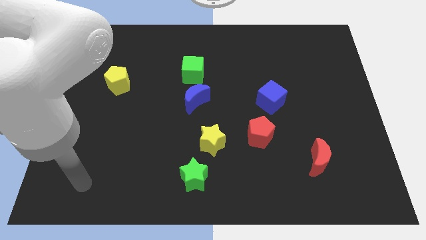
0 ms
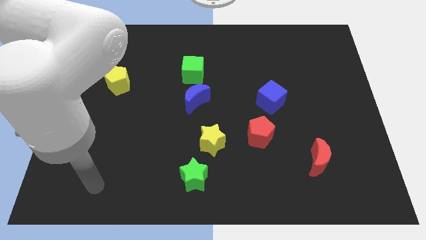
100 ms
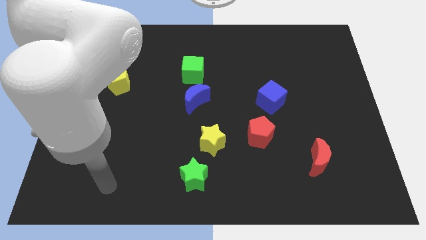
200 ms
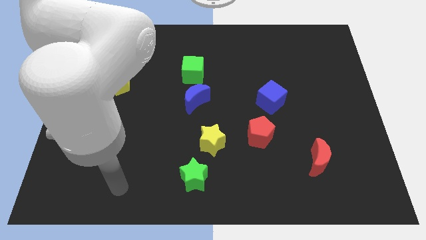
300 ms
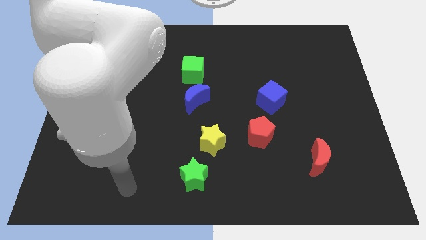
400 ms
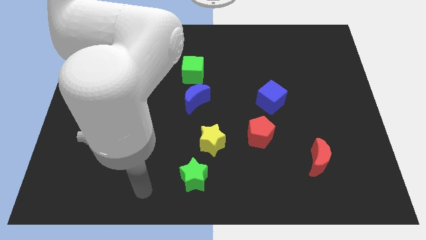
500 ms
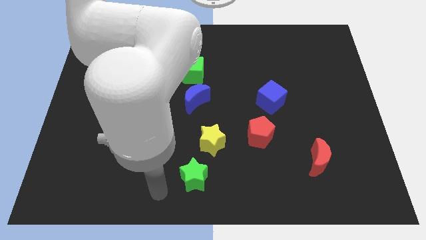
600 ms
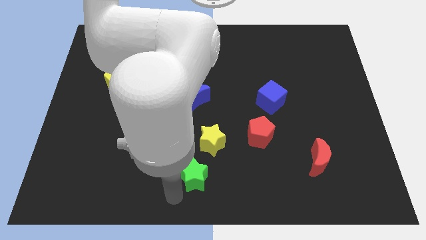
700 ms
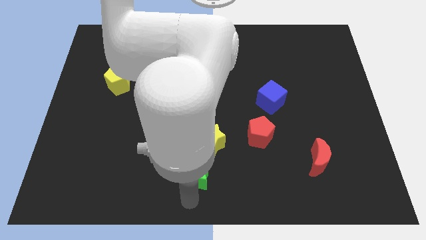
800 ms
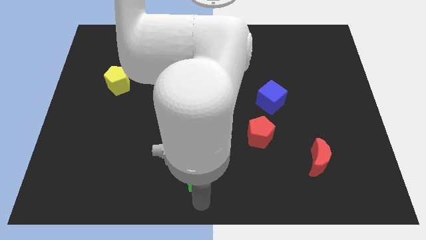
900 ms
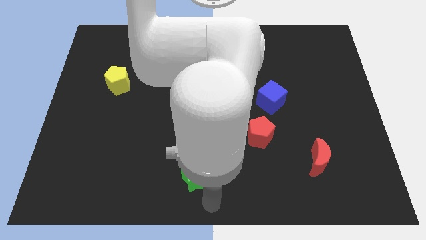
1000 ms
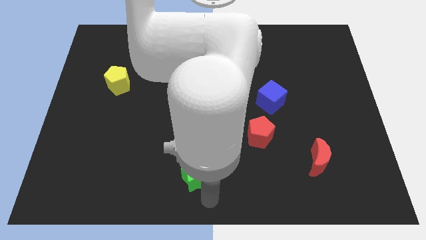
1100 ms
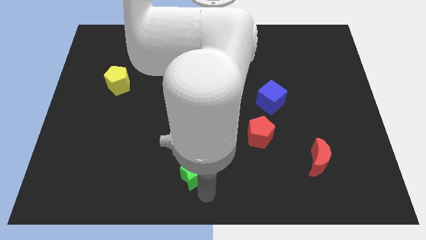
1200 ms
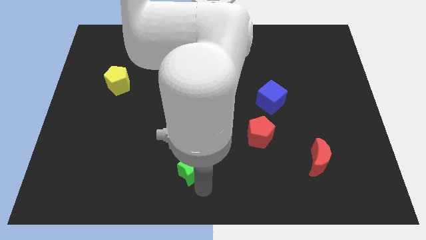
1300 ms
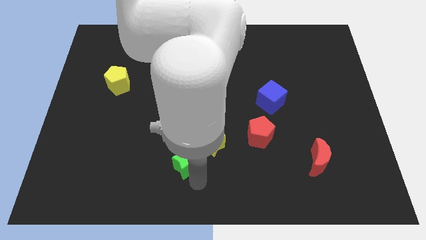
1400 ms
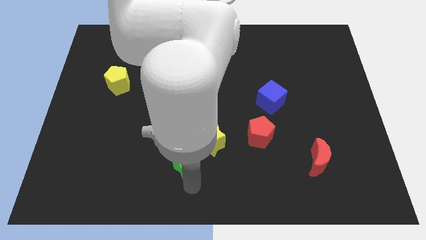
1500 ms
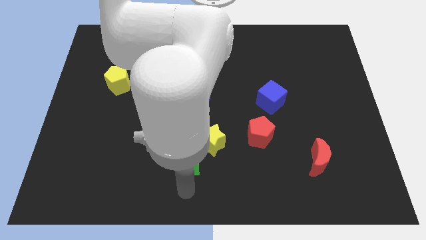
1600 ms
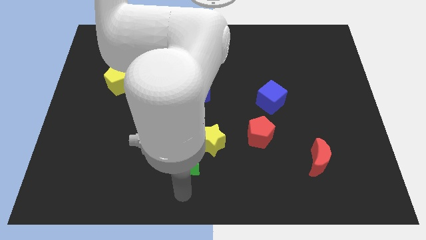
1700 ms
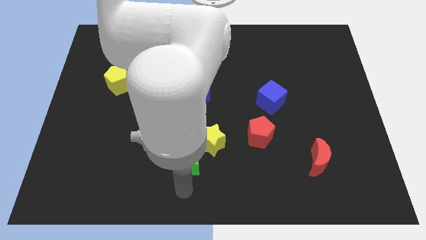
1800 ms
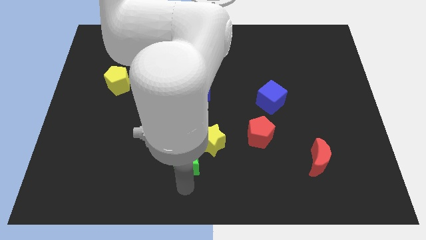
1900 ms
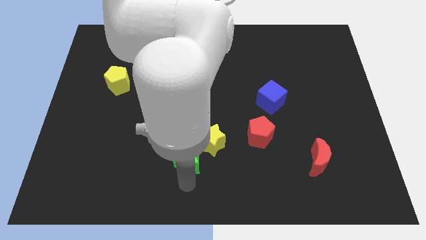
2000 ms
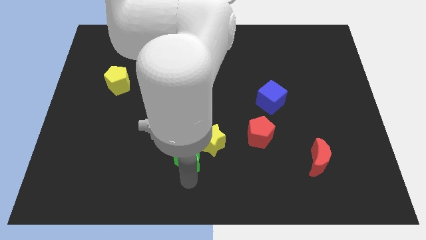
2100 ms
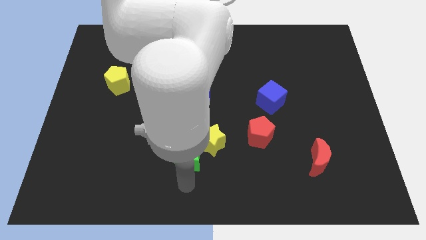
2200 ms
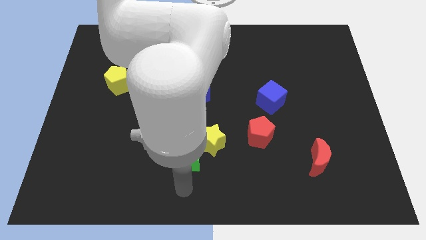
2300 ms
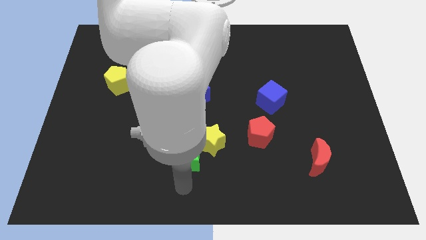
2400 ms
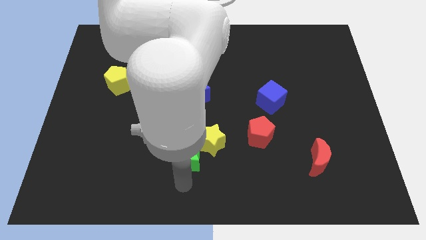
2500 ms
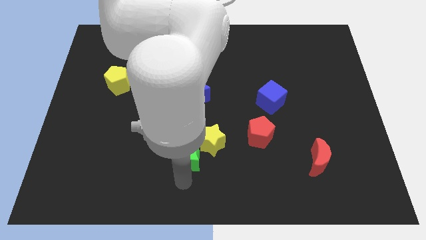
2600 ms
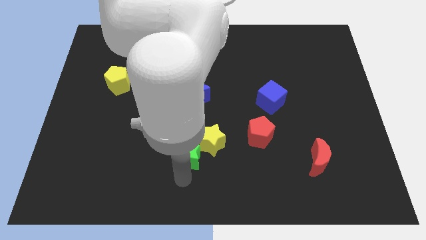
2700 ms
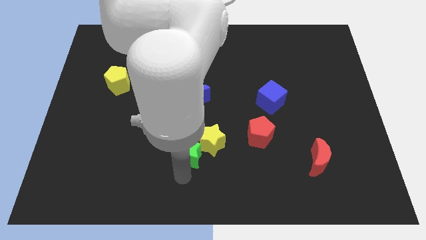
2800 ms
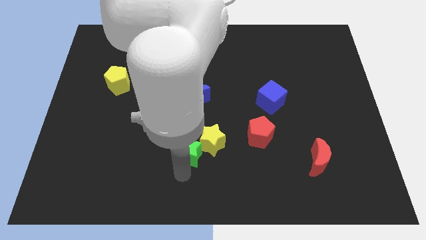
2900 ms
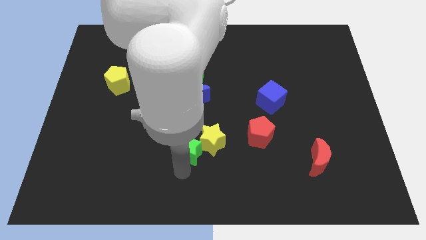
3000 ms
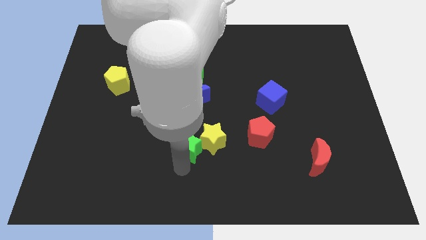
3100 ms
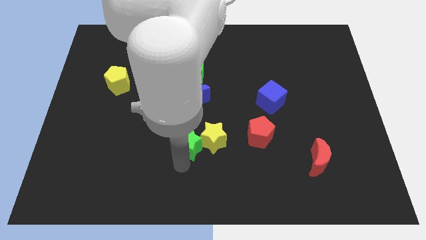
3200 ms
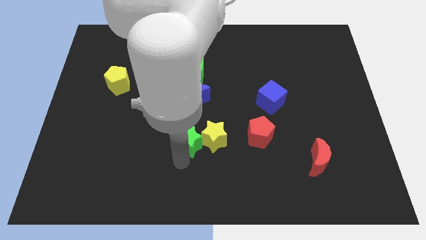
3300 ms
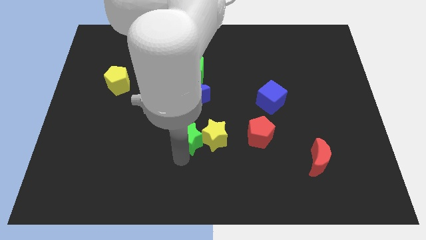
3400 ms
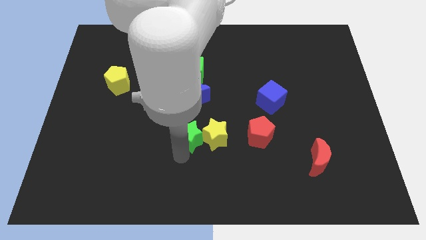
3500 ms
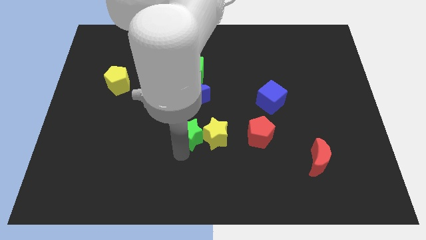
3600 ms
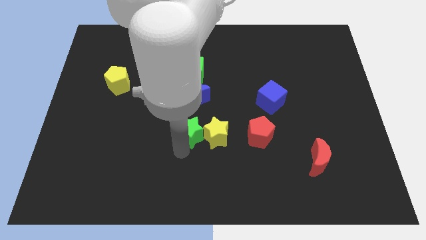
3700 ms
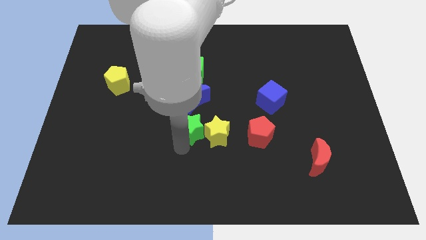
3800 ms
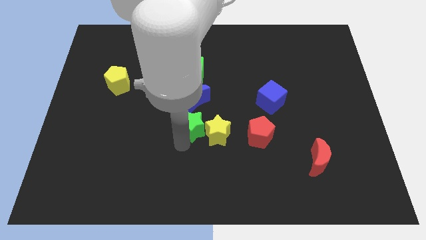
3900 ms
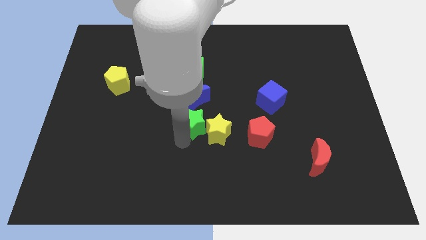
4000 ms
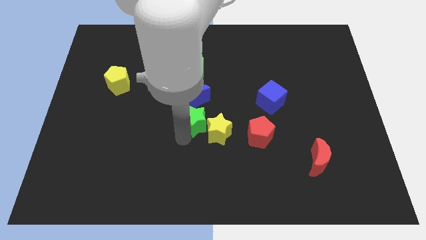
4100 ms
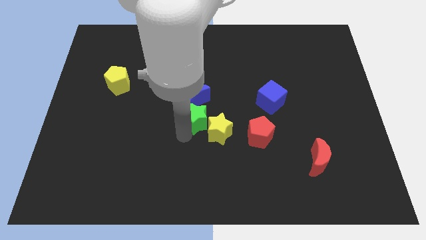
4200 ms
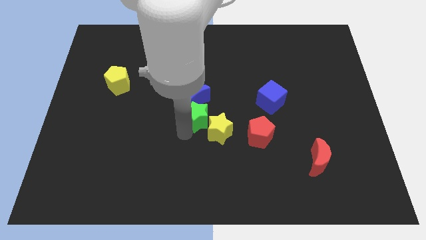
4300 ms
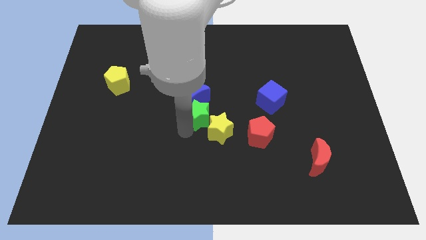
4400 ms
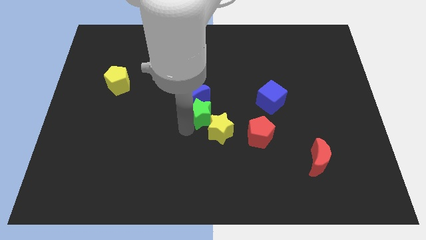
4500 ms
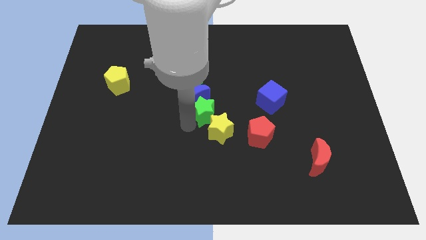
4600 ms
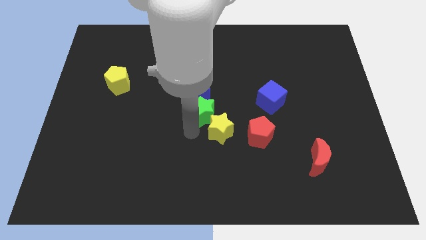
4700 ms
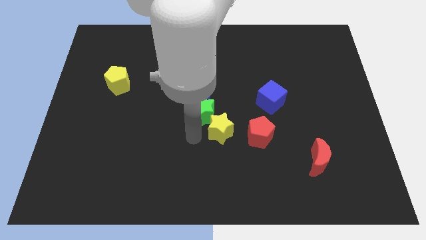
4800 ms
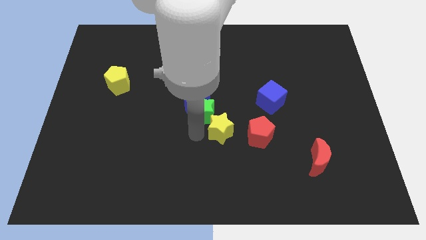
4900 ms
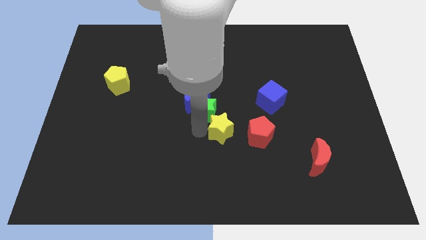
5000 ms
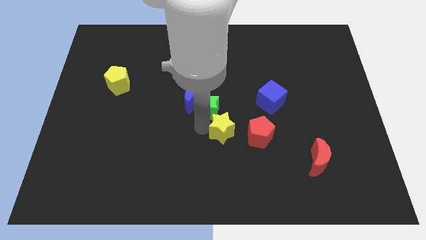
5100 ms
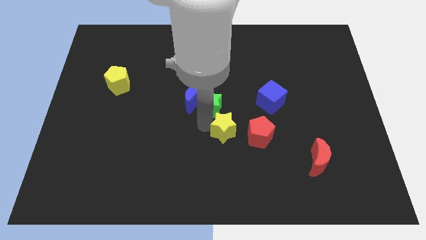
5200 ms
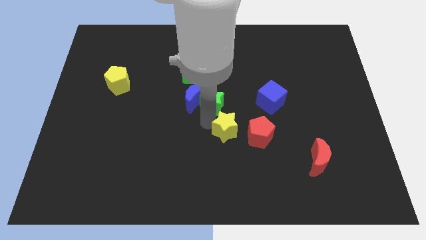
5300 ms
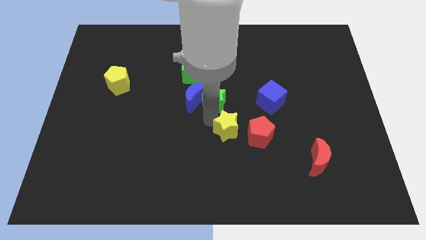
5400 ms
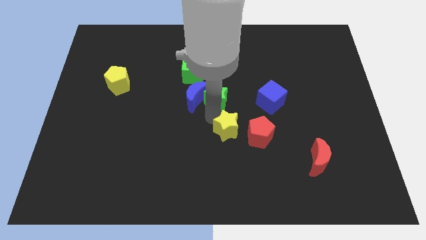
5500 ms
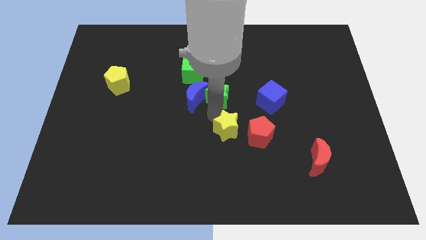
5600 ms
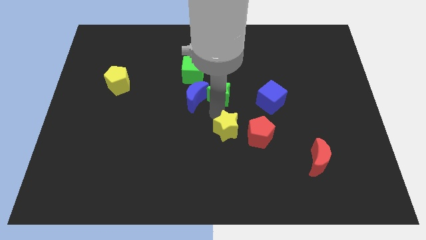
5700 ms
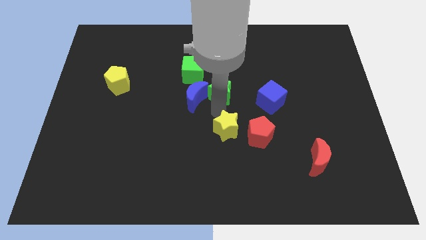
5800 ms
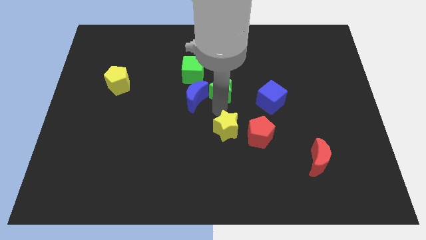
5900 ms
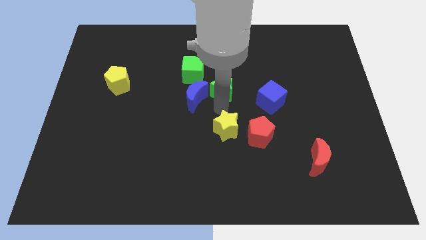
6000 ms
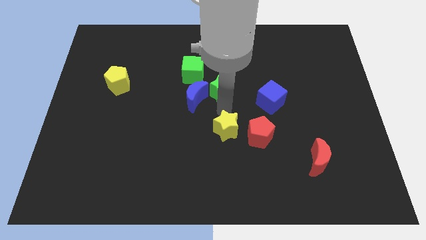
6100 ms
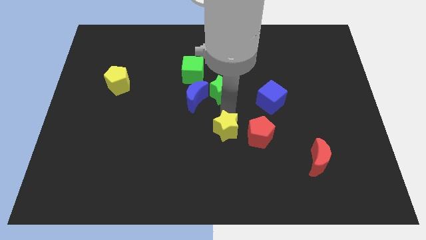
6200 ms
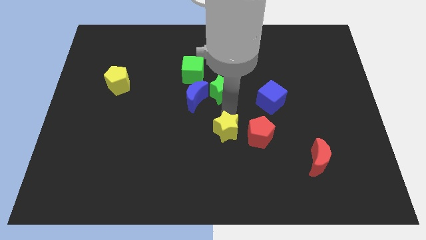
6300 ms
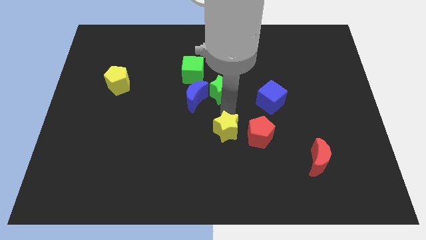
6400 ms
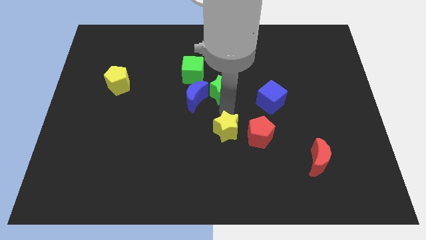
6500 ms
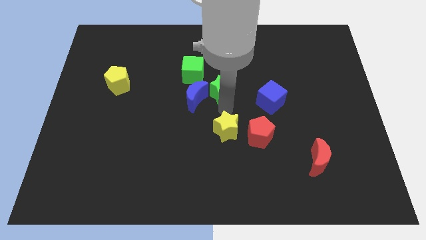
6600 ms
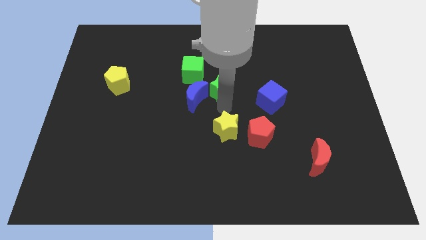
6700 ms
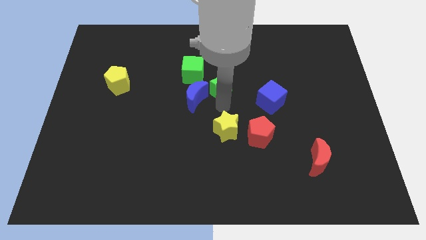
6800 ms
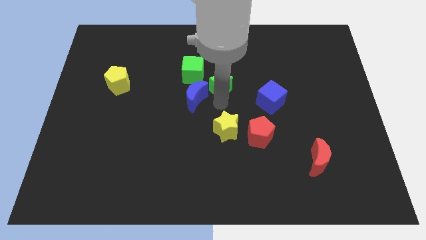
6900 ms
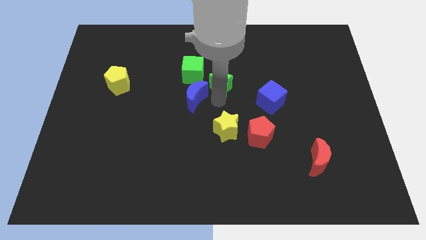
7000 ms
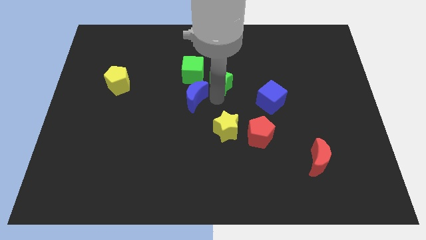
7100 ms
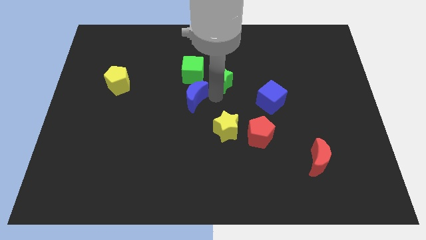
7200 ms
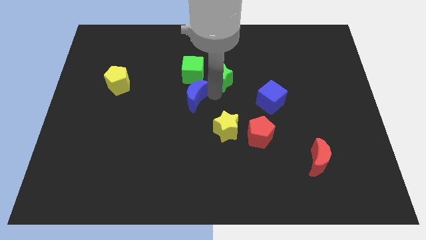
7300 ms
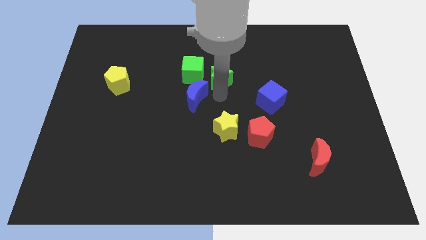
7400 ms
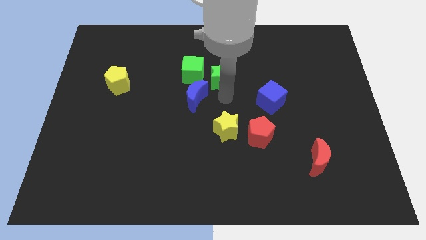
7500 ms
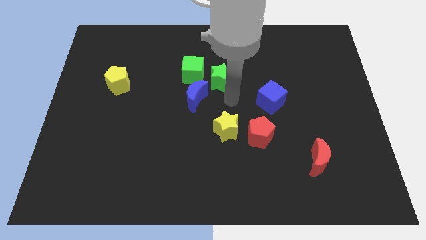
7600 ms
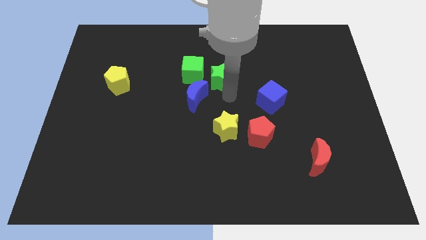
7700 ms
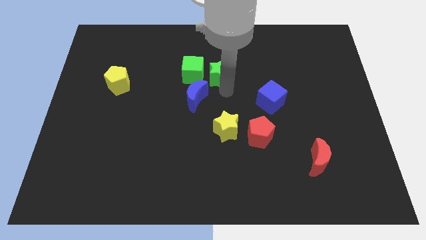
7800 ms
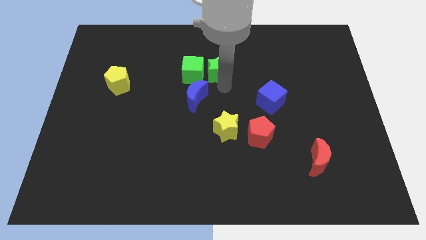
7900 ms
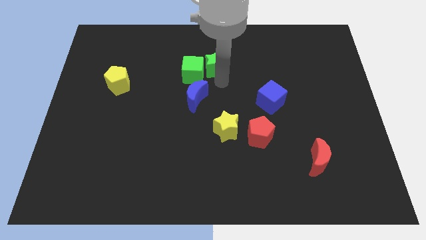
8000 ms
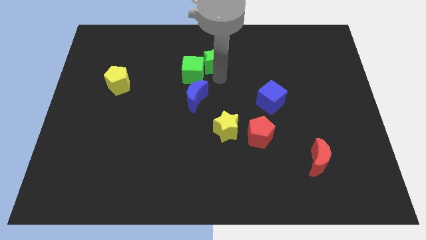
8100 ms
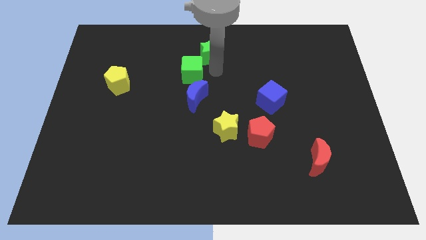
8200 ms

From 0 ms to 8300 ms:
move the green star to the top side
